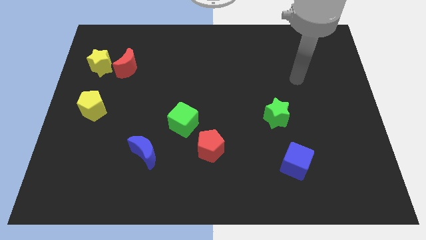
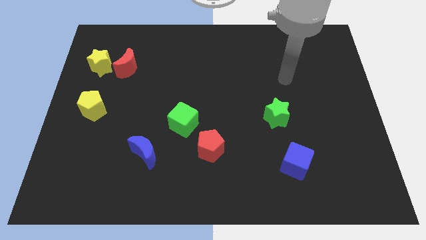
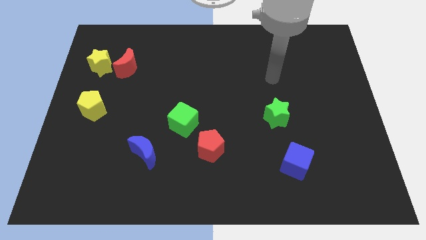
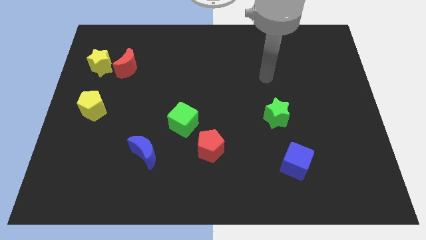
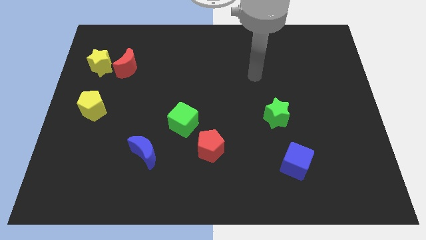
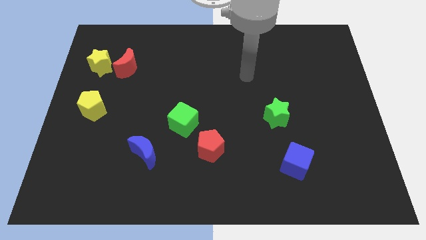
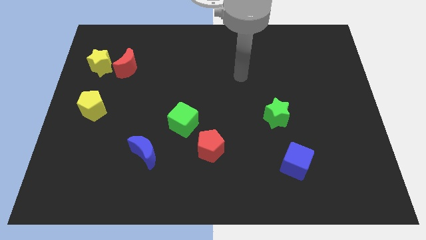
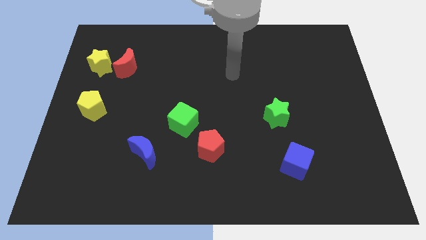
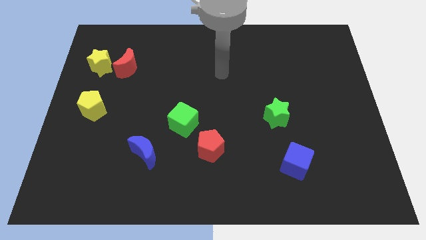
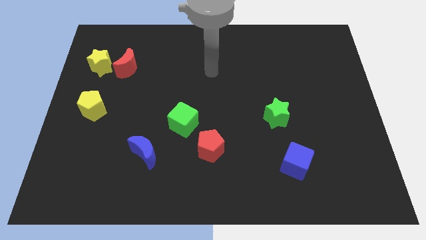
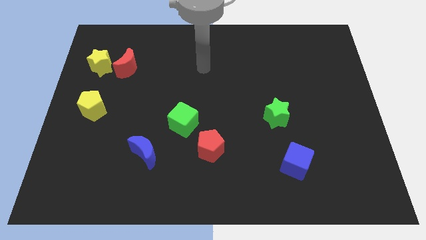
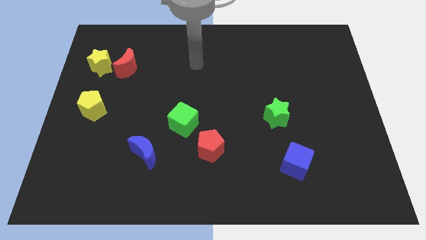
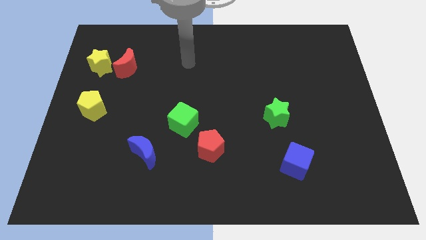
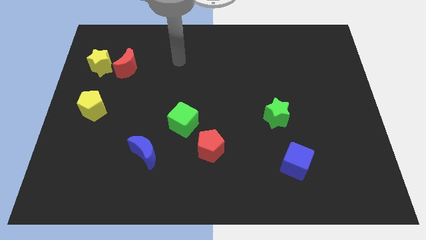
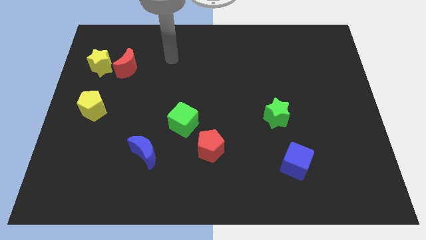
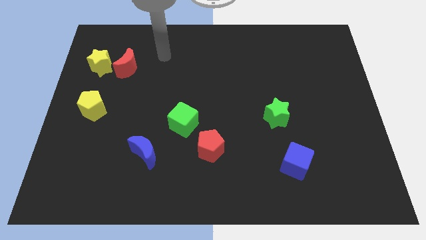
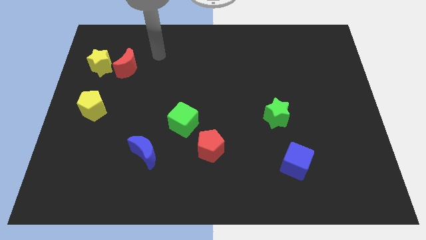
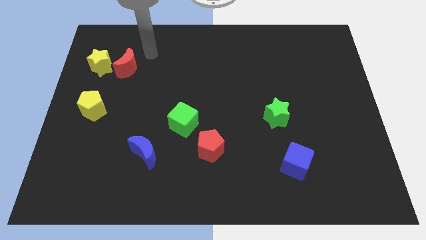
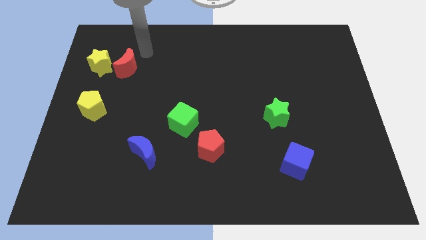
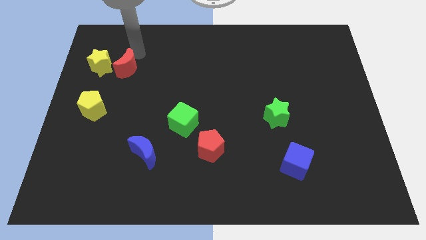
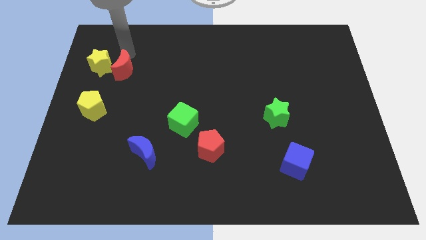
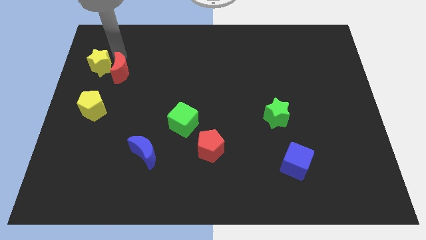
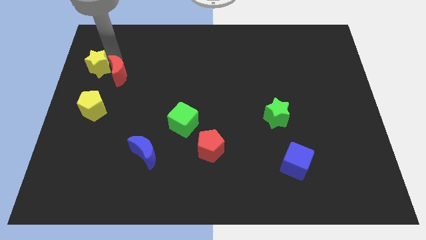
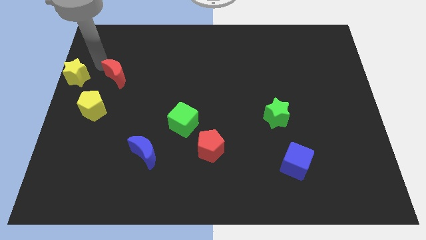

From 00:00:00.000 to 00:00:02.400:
move the red moon away from the yellow star

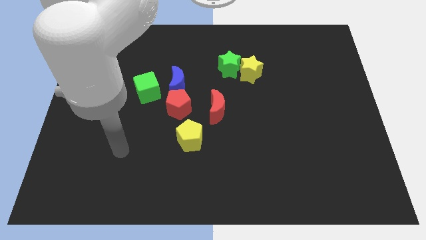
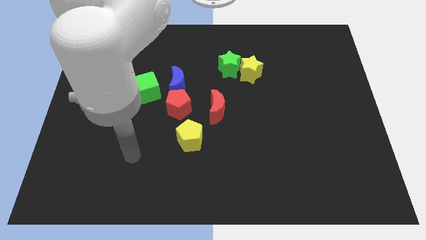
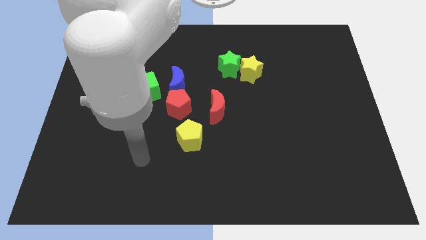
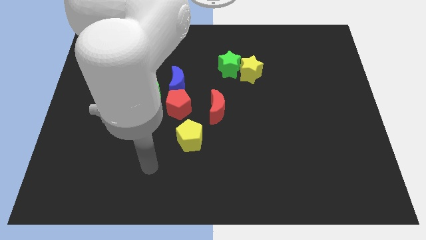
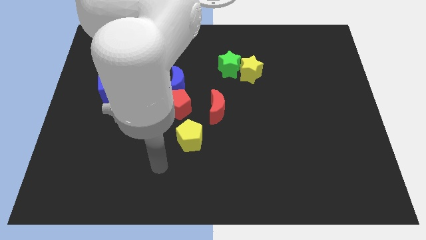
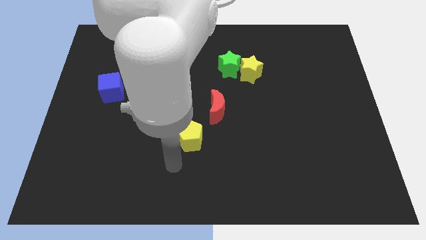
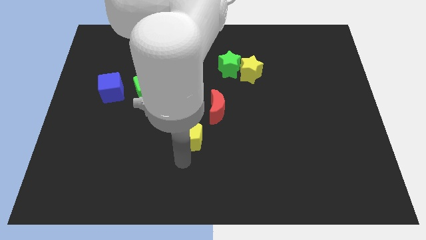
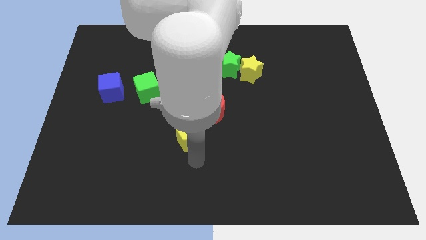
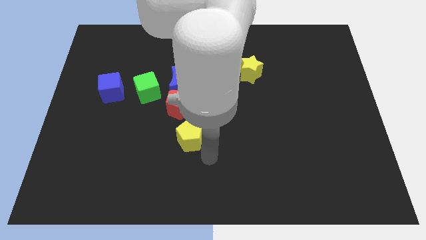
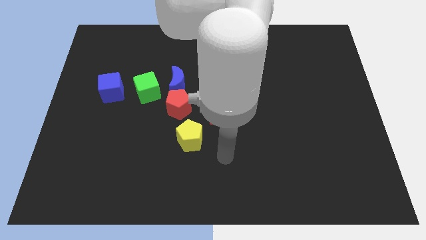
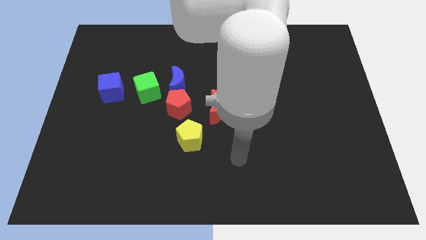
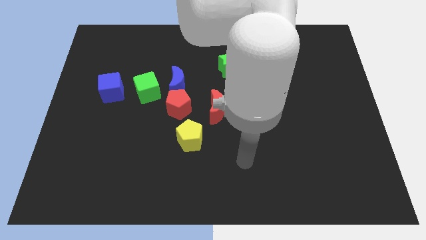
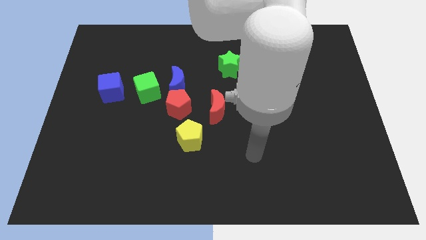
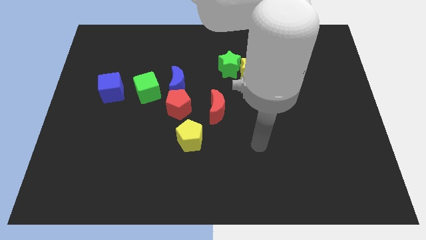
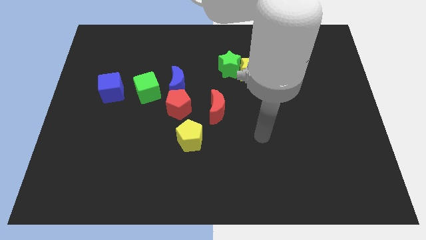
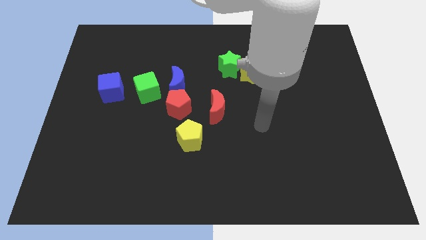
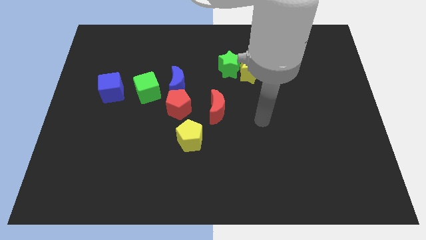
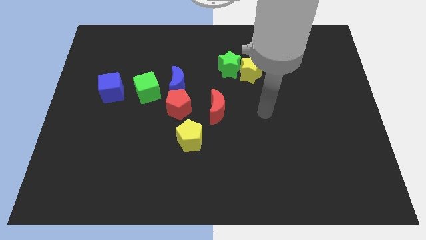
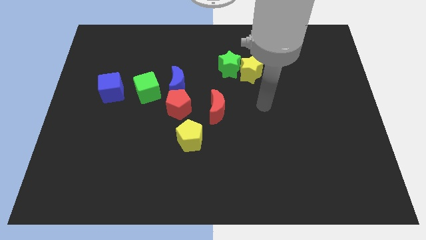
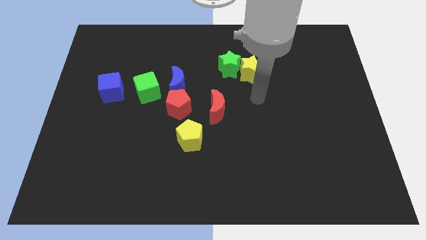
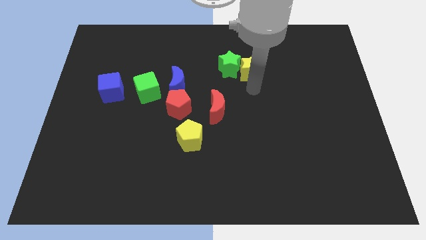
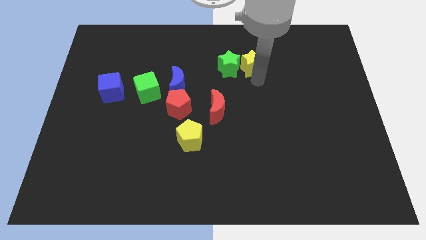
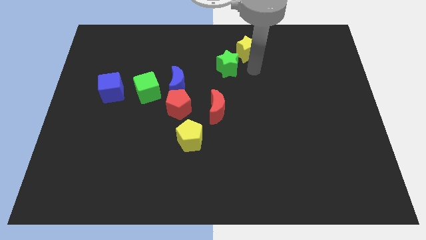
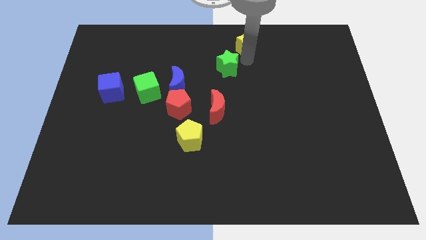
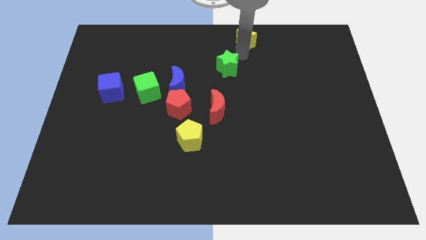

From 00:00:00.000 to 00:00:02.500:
separate the green star from the yellow star

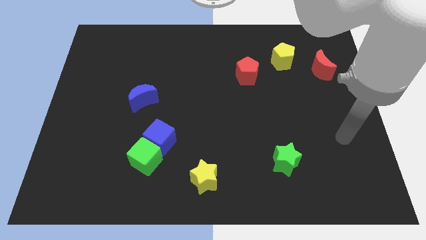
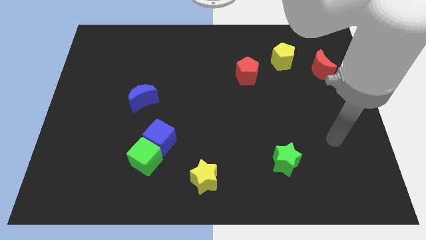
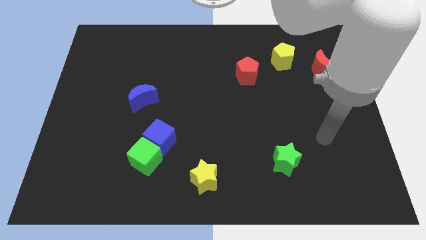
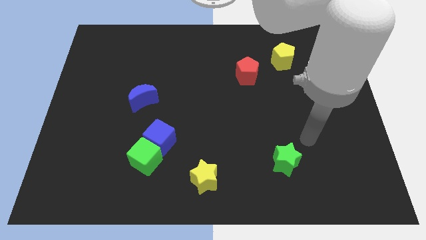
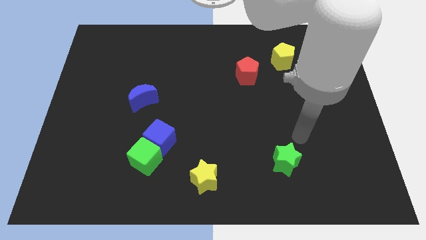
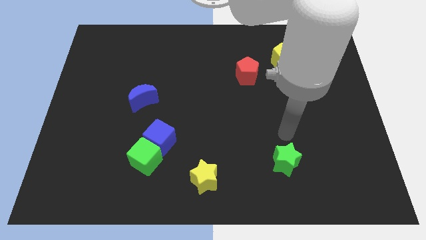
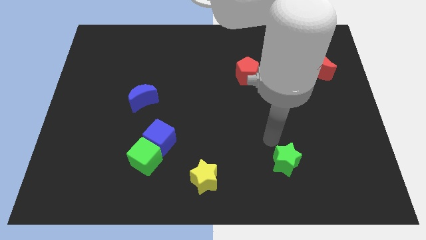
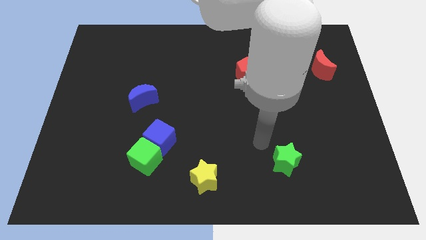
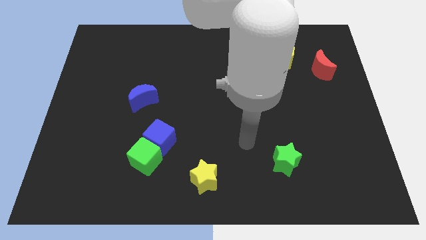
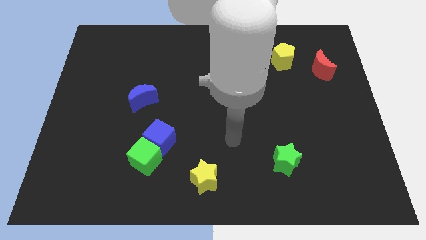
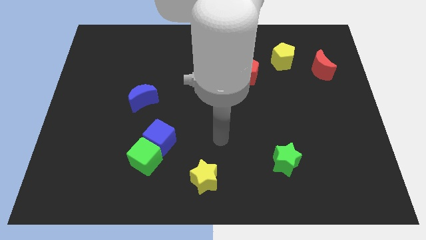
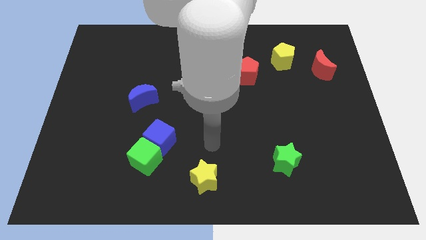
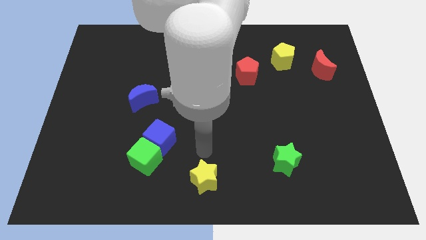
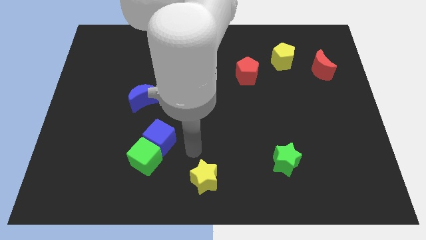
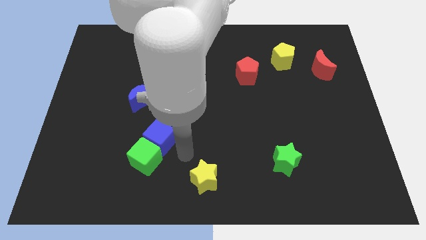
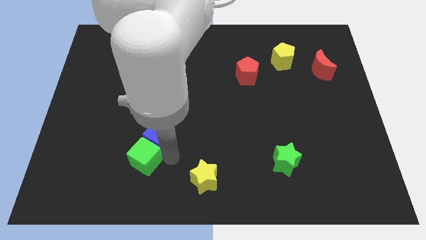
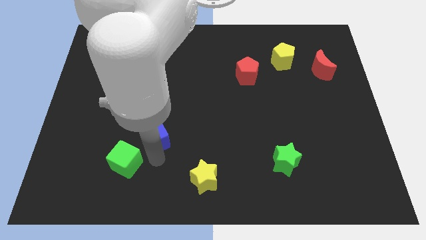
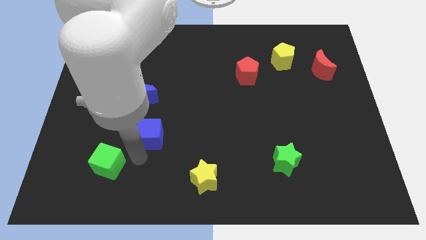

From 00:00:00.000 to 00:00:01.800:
separate the blue cube from the green cube

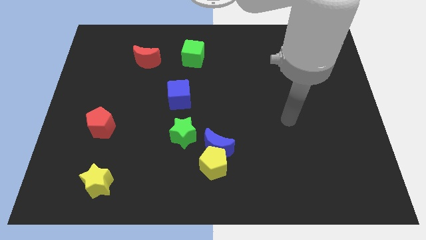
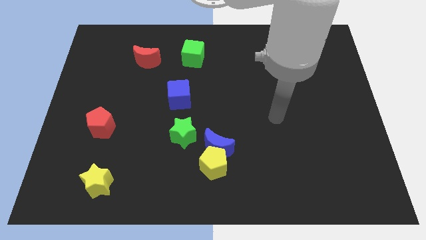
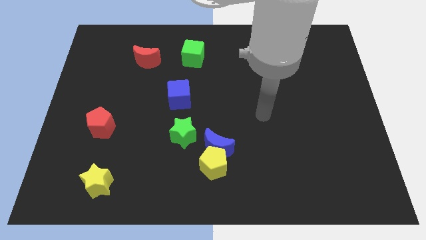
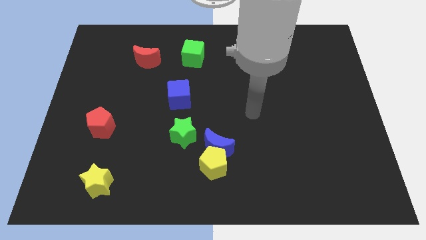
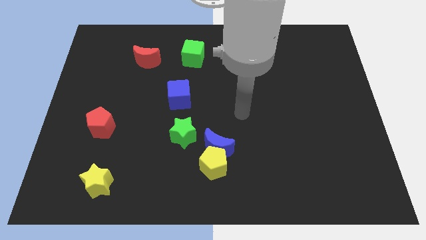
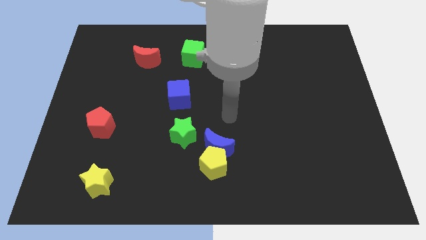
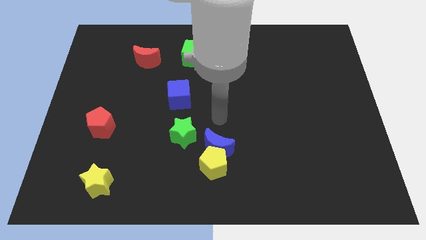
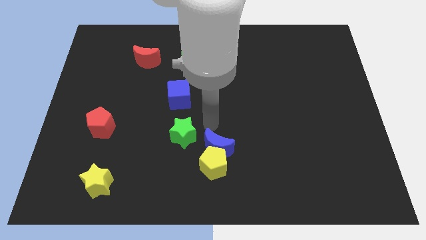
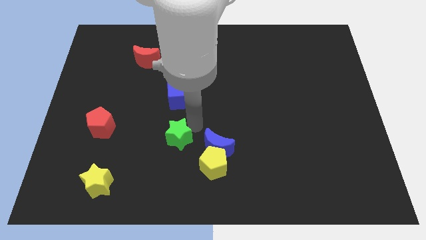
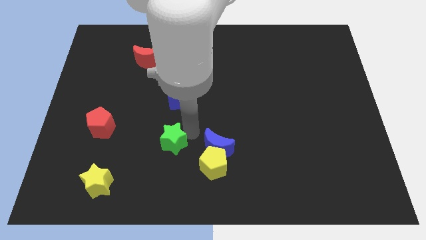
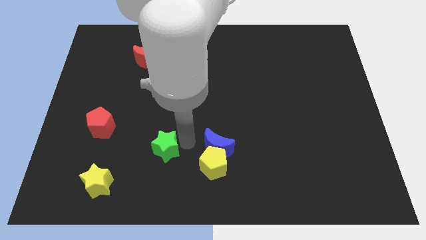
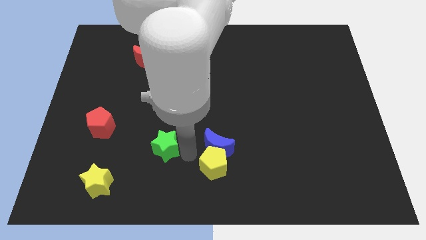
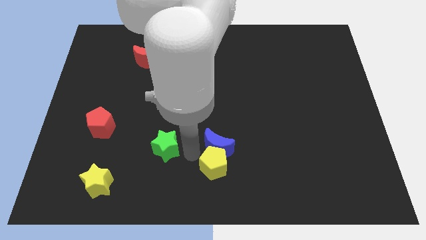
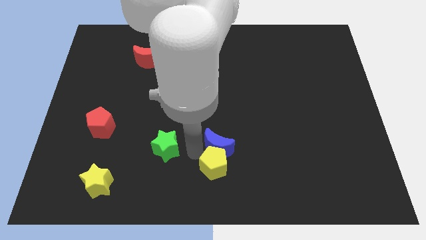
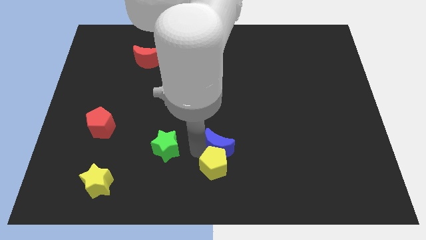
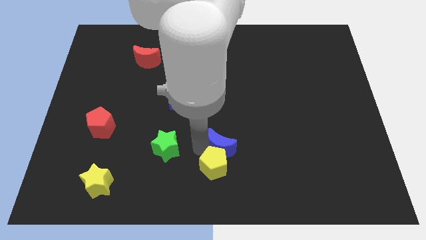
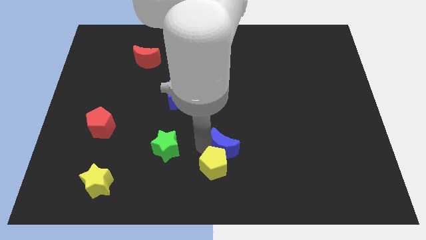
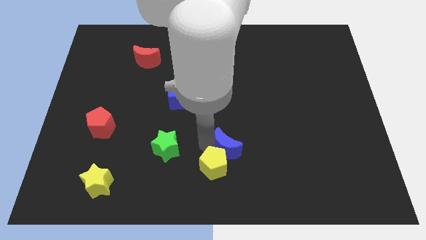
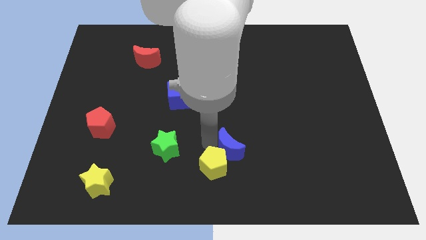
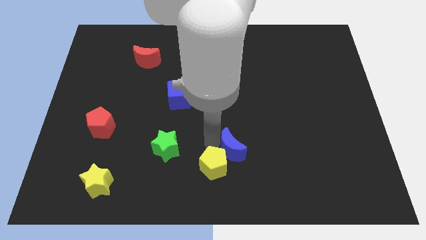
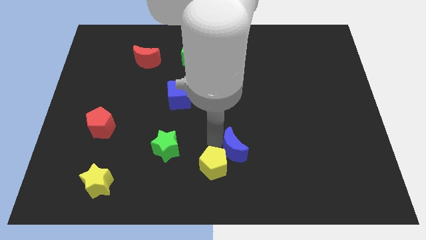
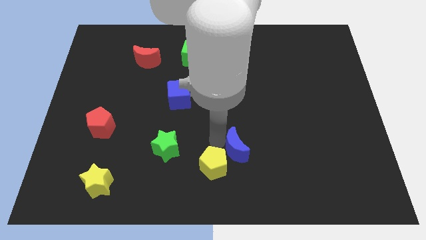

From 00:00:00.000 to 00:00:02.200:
move the blue moon away from the yellow pentagon and green star

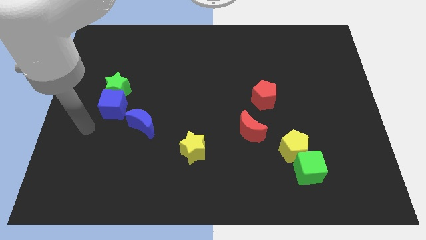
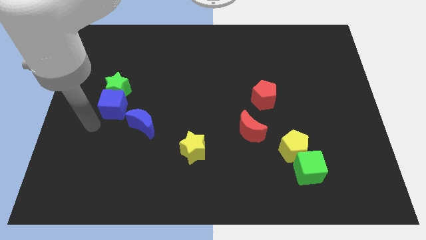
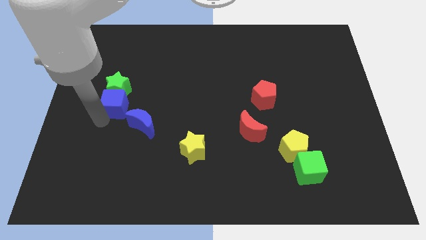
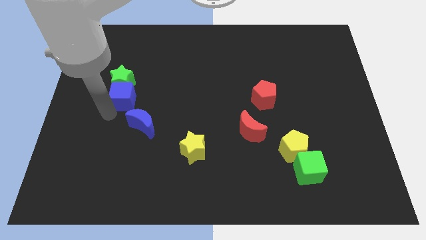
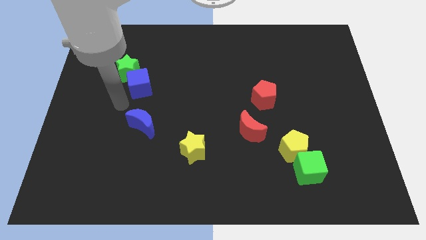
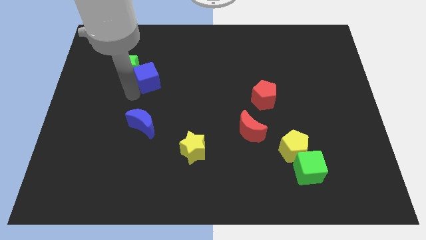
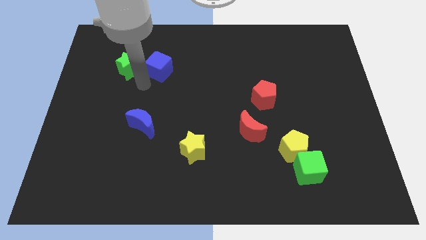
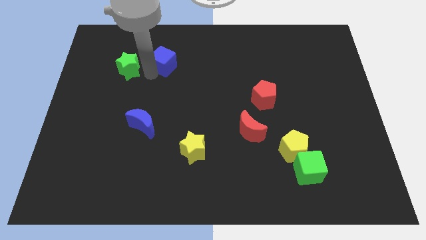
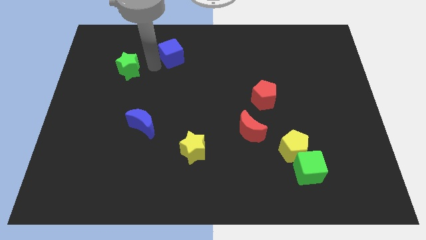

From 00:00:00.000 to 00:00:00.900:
pull the green star apart from the blue cube
